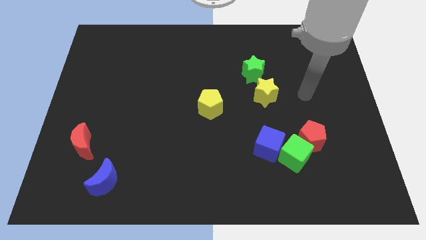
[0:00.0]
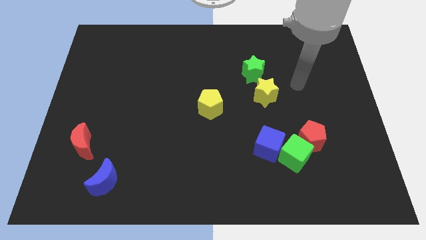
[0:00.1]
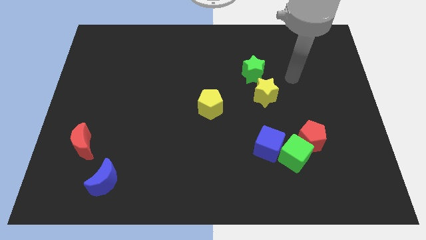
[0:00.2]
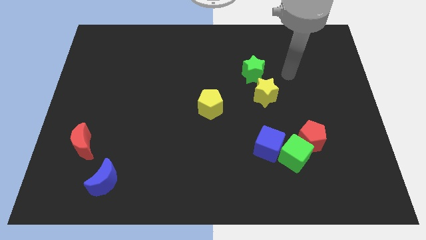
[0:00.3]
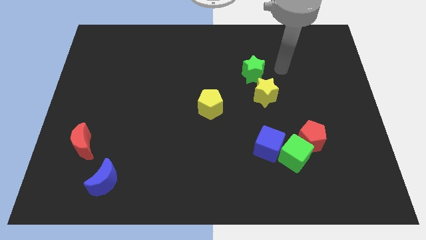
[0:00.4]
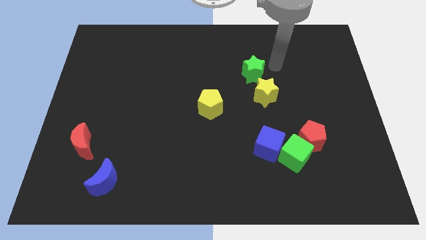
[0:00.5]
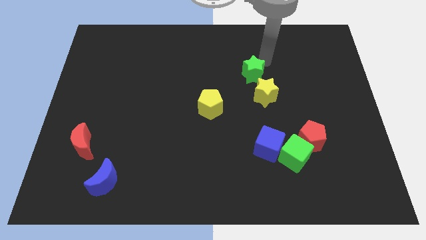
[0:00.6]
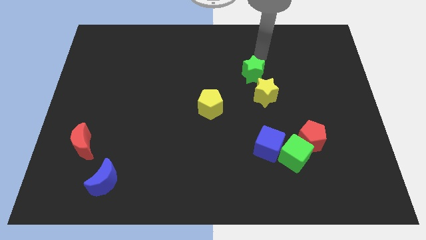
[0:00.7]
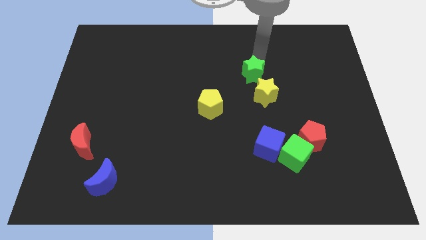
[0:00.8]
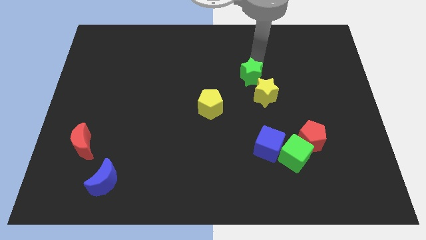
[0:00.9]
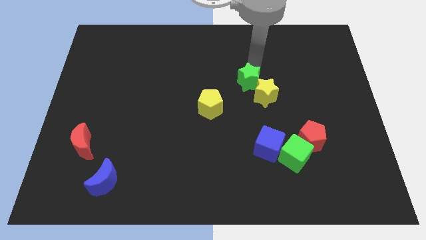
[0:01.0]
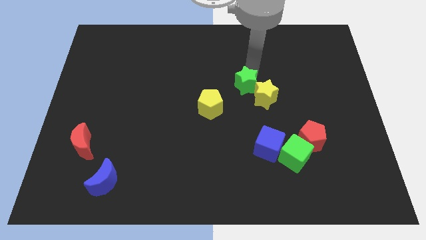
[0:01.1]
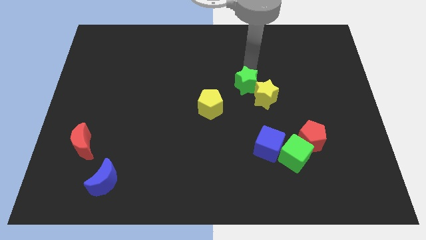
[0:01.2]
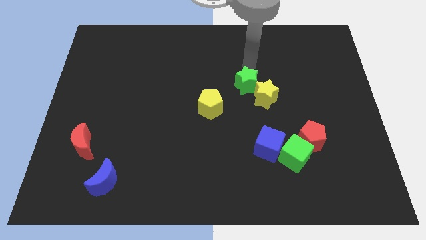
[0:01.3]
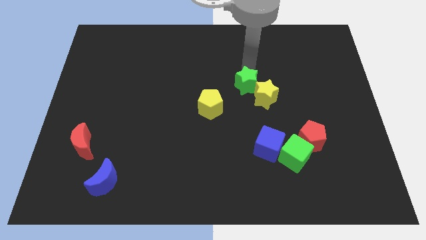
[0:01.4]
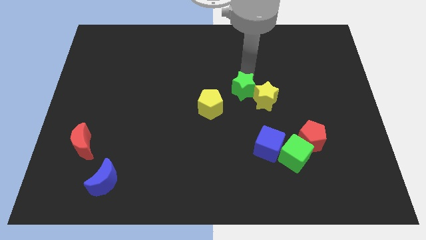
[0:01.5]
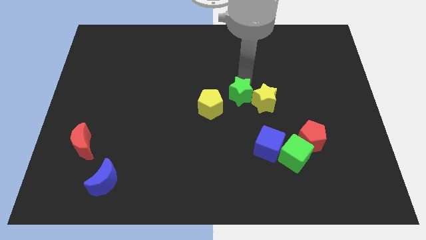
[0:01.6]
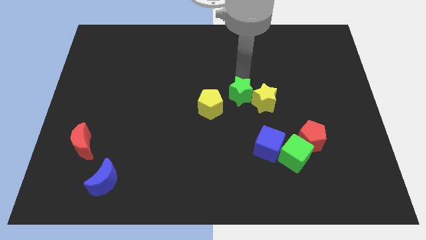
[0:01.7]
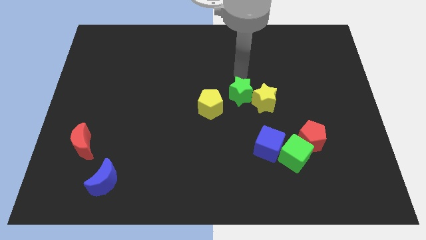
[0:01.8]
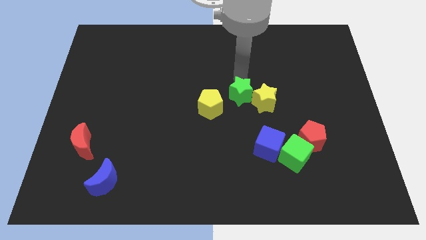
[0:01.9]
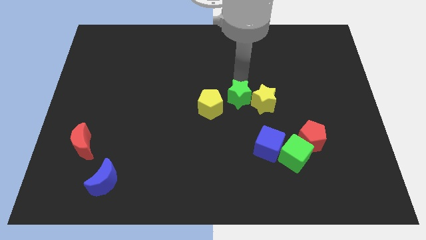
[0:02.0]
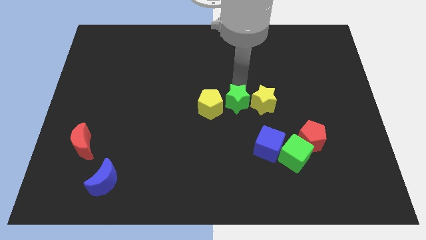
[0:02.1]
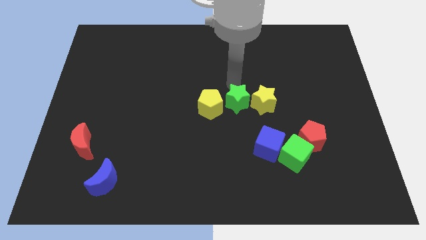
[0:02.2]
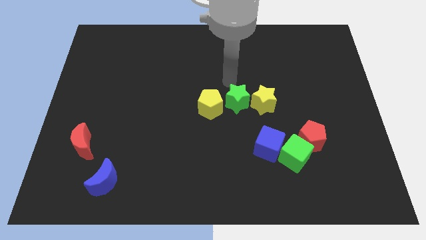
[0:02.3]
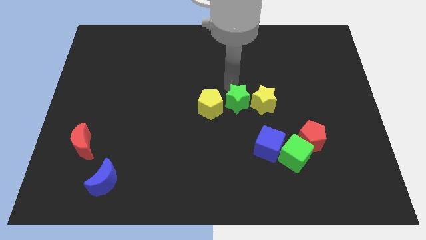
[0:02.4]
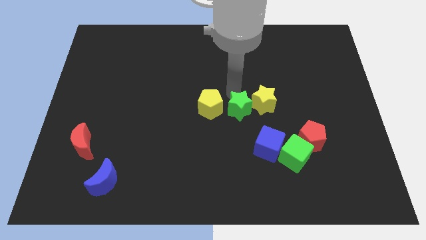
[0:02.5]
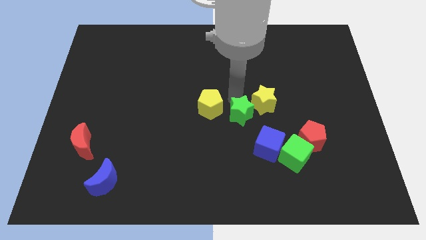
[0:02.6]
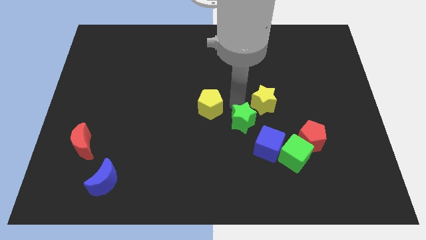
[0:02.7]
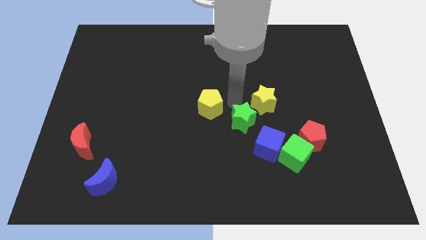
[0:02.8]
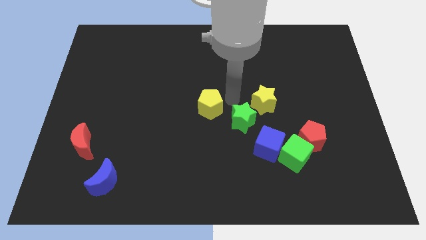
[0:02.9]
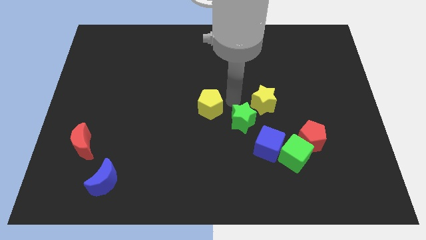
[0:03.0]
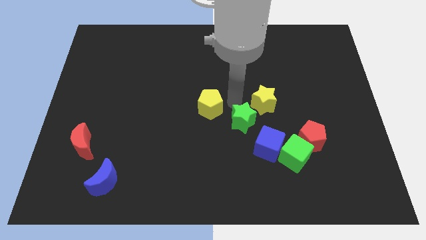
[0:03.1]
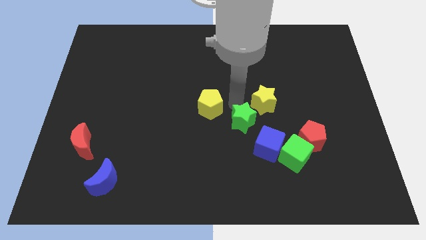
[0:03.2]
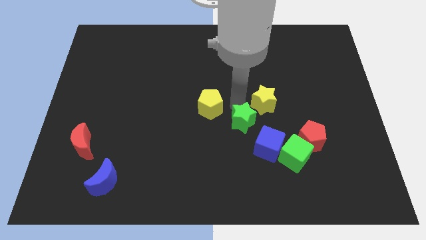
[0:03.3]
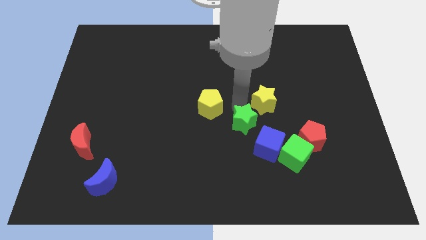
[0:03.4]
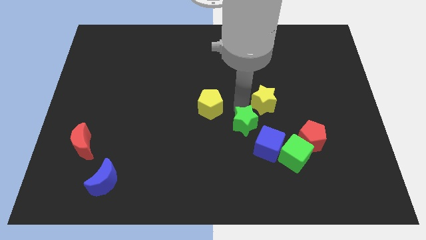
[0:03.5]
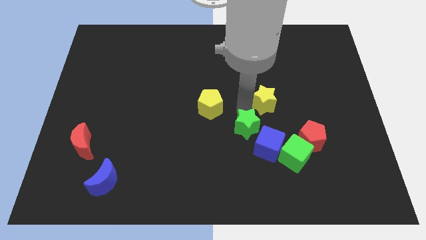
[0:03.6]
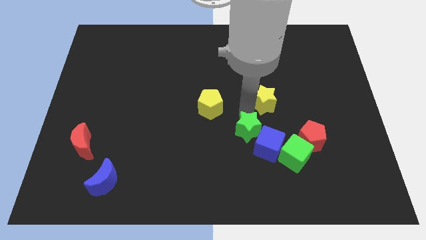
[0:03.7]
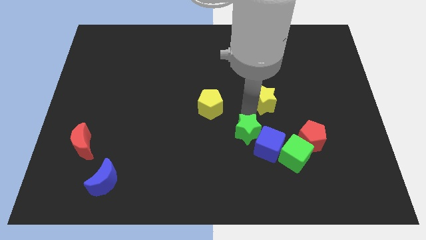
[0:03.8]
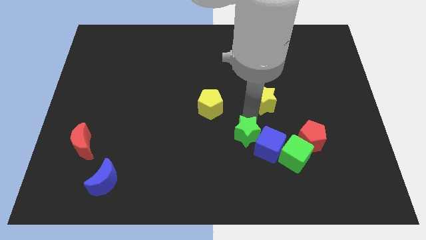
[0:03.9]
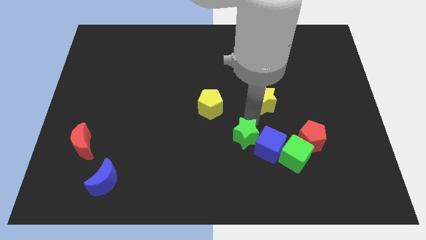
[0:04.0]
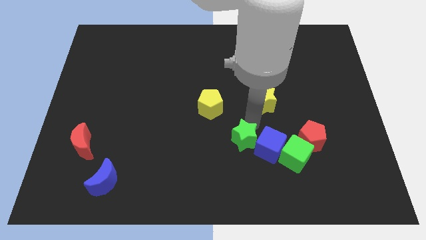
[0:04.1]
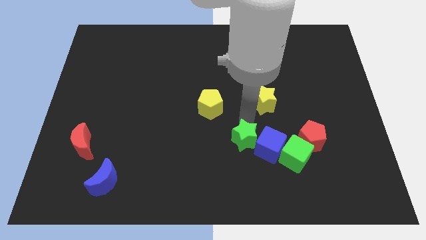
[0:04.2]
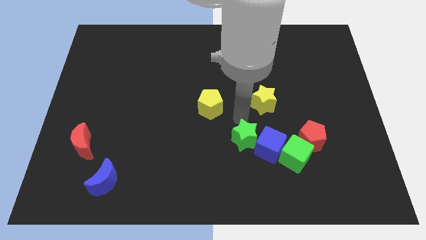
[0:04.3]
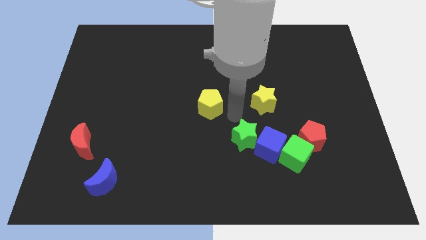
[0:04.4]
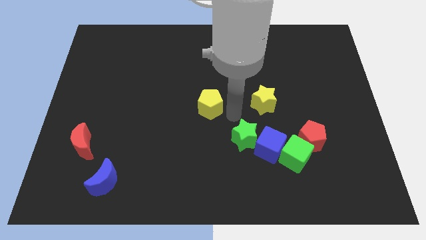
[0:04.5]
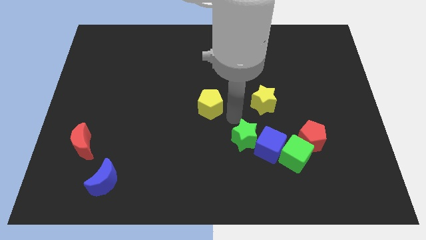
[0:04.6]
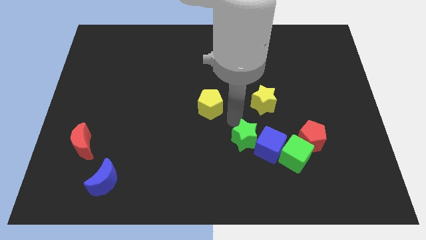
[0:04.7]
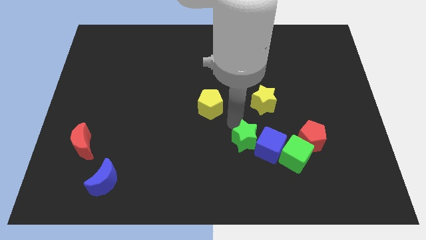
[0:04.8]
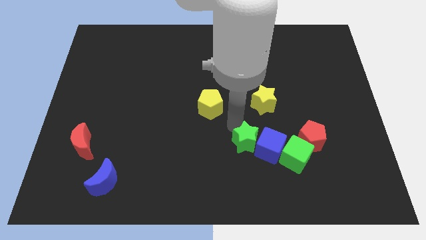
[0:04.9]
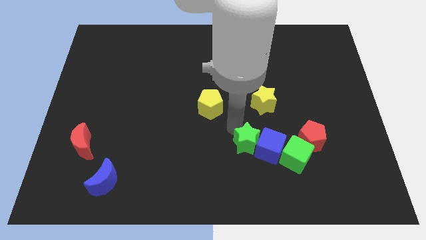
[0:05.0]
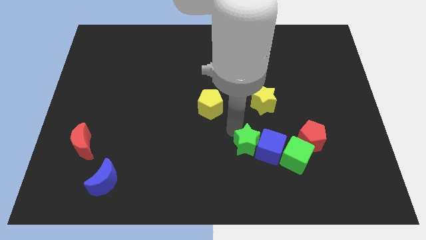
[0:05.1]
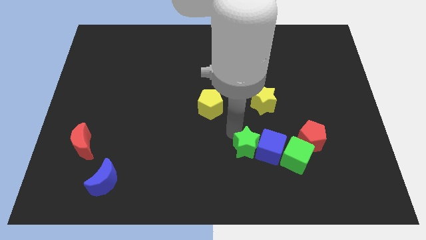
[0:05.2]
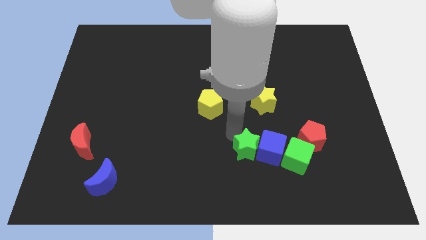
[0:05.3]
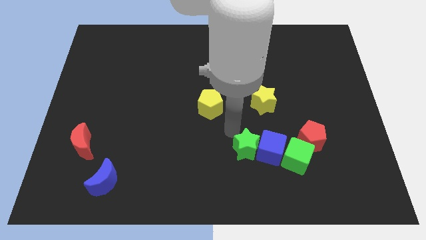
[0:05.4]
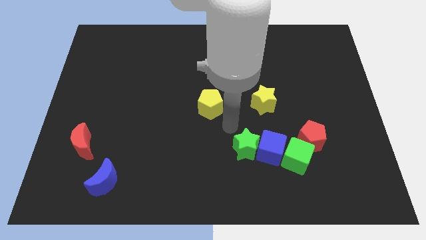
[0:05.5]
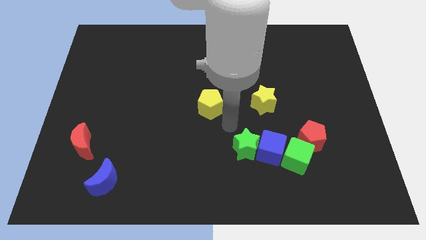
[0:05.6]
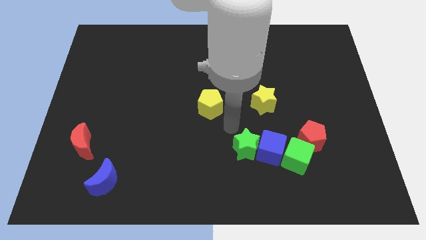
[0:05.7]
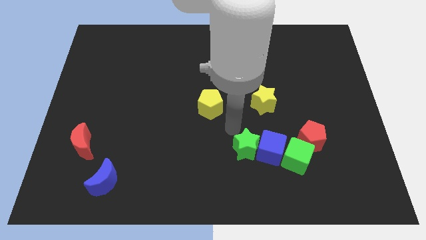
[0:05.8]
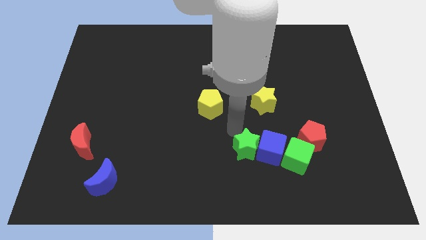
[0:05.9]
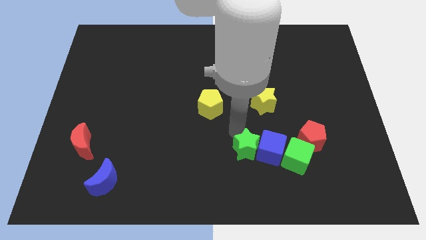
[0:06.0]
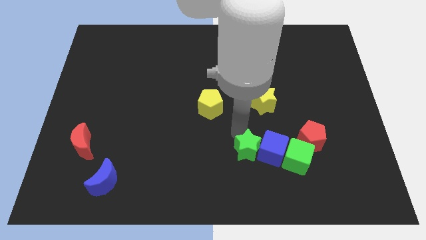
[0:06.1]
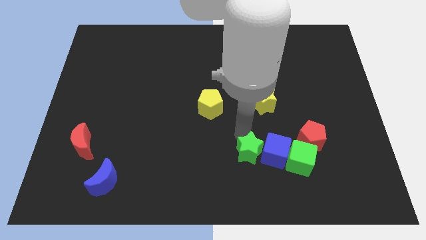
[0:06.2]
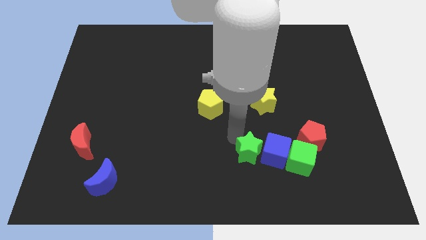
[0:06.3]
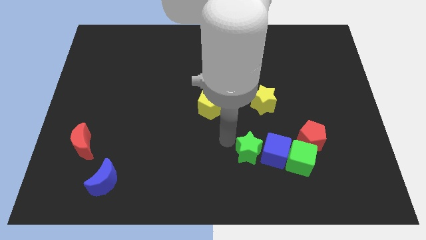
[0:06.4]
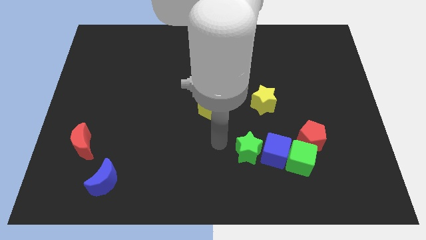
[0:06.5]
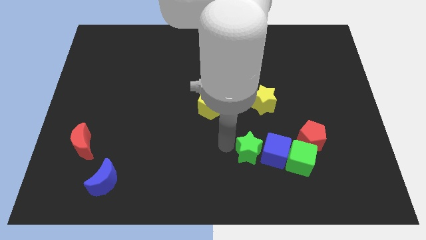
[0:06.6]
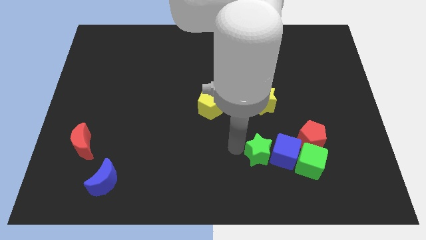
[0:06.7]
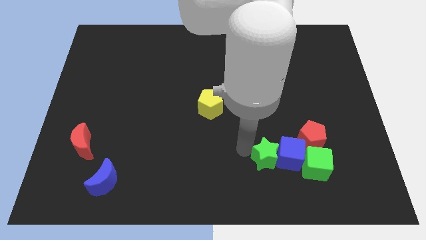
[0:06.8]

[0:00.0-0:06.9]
push the green star to the bottom left of the red pentagon

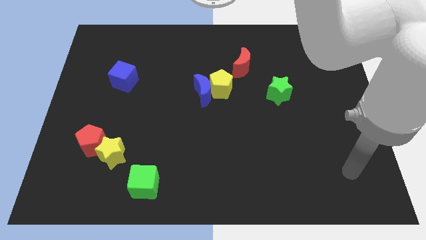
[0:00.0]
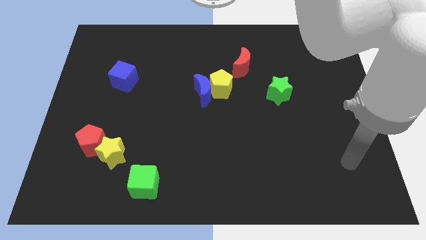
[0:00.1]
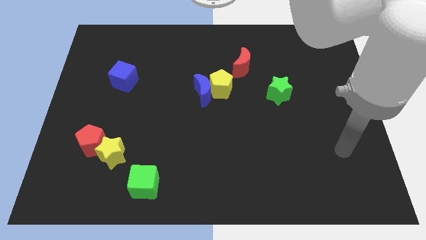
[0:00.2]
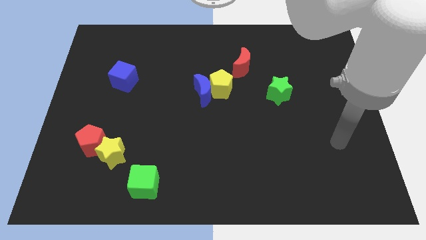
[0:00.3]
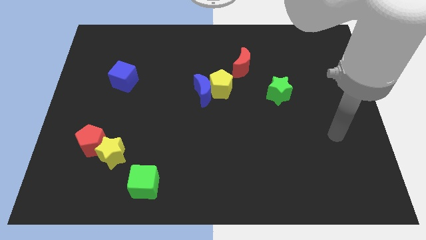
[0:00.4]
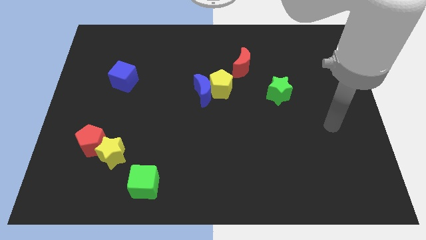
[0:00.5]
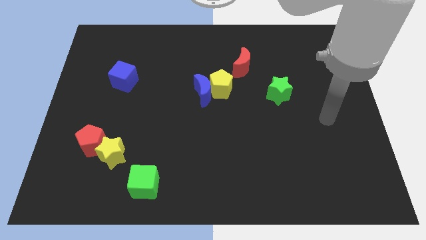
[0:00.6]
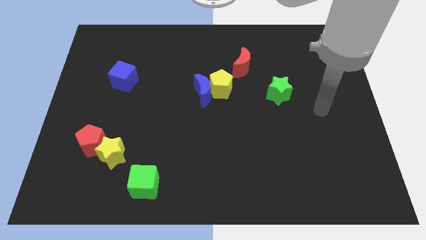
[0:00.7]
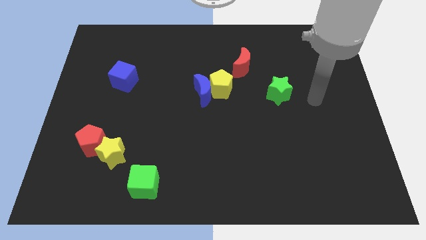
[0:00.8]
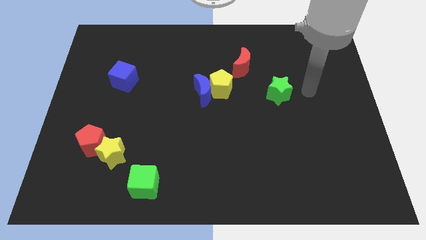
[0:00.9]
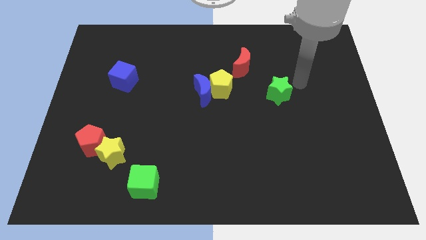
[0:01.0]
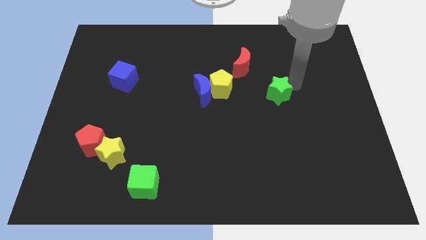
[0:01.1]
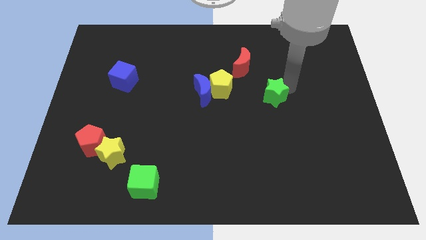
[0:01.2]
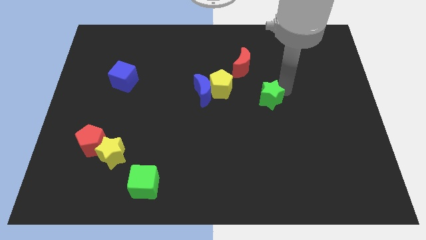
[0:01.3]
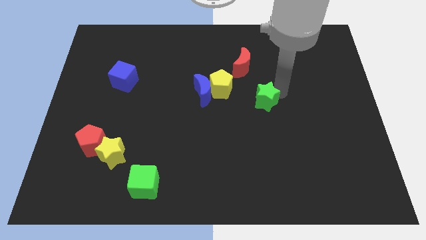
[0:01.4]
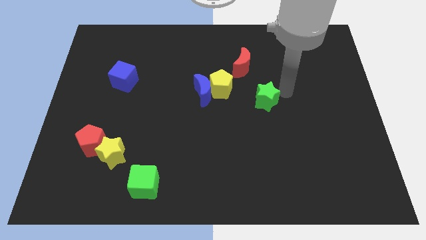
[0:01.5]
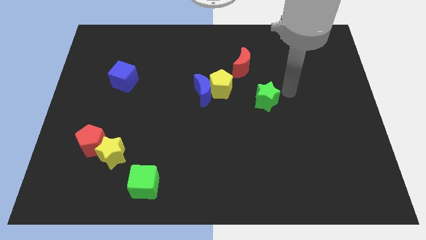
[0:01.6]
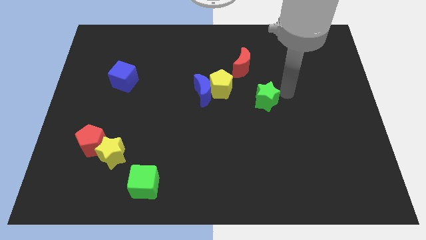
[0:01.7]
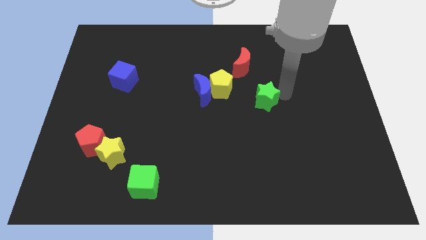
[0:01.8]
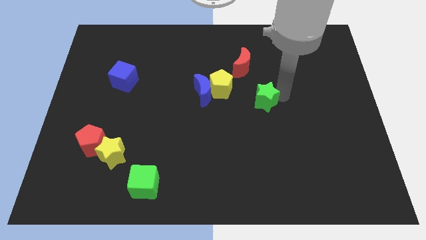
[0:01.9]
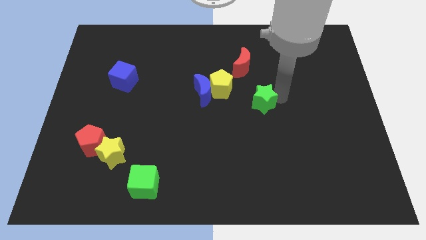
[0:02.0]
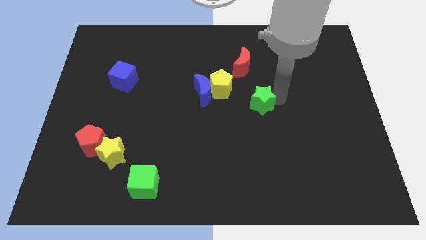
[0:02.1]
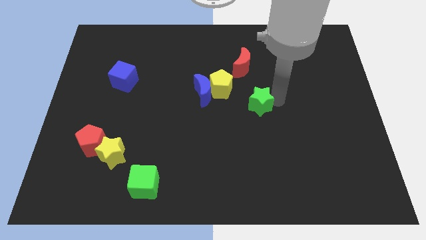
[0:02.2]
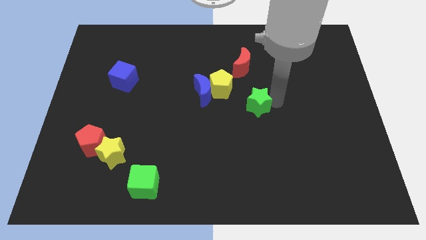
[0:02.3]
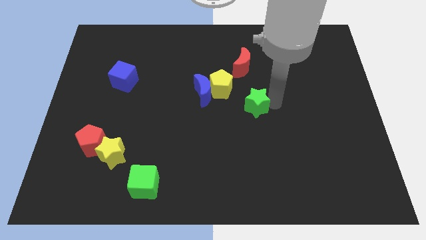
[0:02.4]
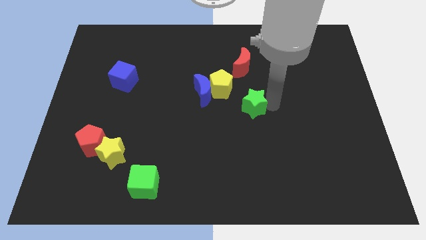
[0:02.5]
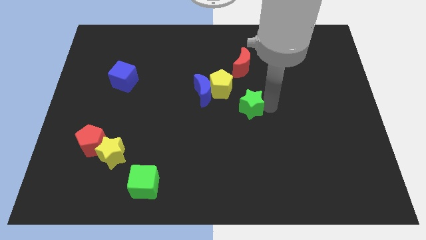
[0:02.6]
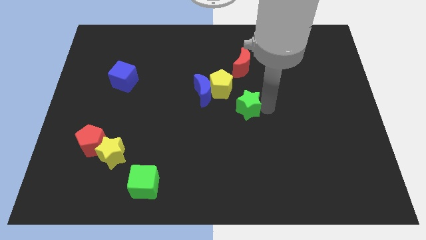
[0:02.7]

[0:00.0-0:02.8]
put the green star to the bottom right side of the blue moon
